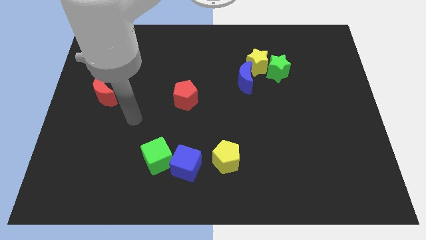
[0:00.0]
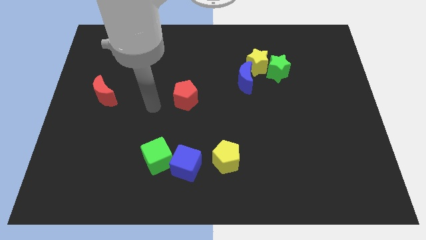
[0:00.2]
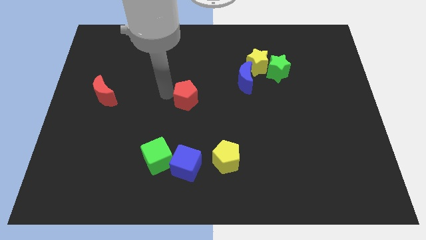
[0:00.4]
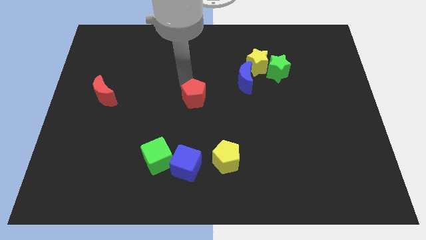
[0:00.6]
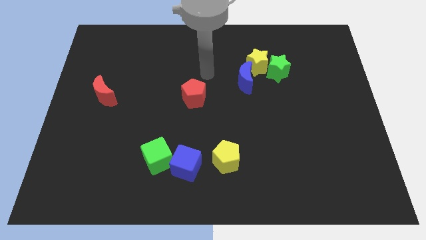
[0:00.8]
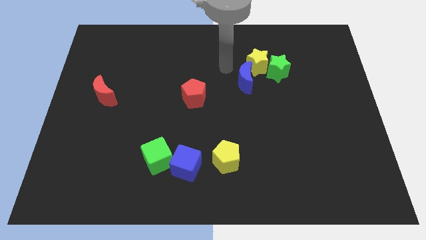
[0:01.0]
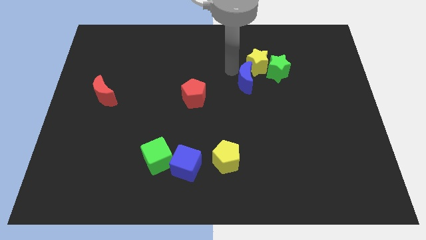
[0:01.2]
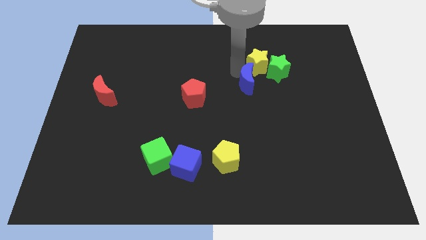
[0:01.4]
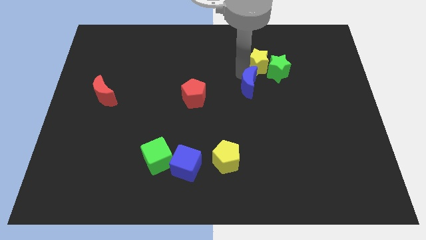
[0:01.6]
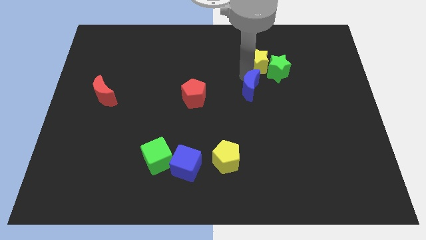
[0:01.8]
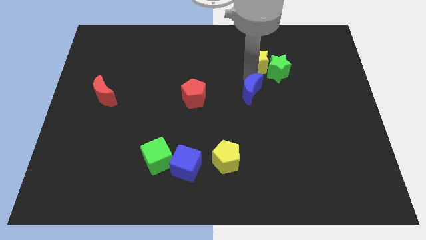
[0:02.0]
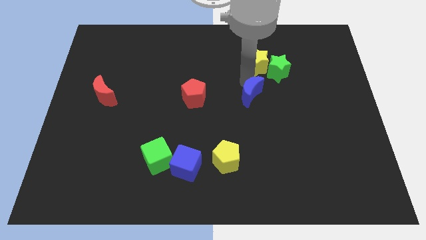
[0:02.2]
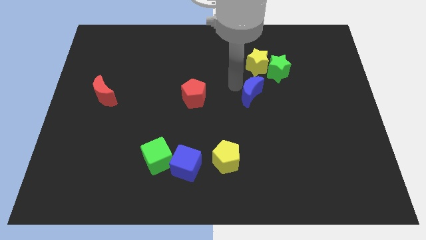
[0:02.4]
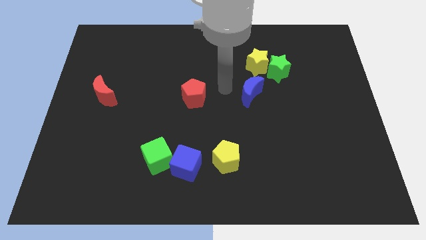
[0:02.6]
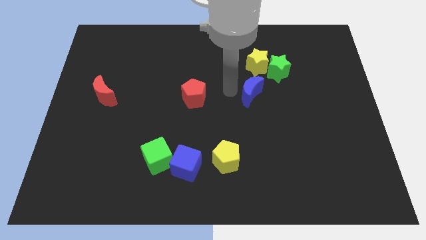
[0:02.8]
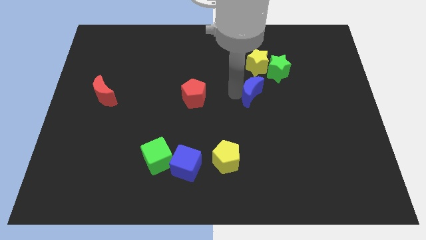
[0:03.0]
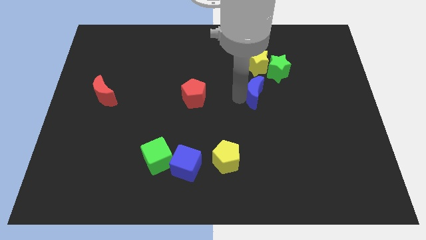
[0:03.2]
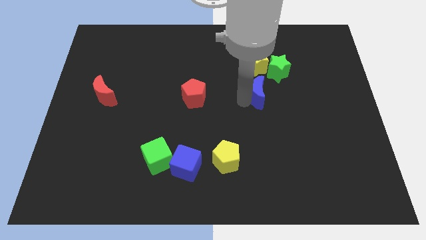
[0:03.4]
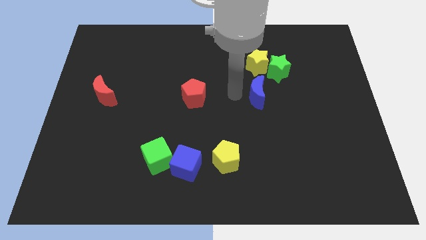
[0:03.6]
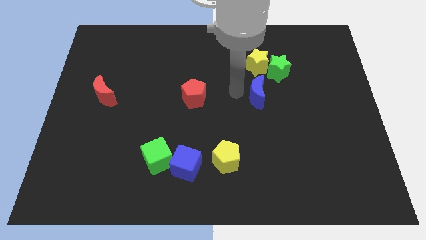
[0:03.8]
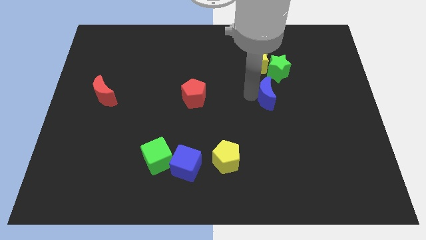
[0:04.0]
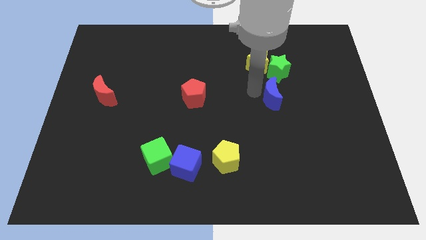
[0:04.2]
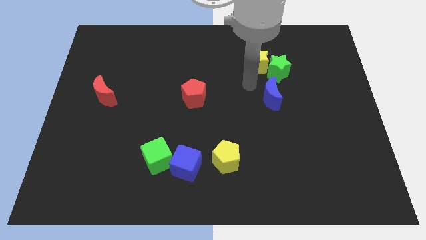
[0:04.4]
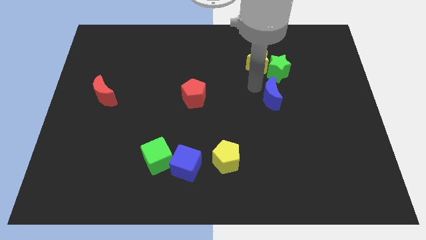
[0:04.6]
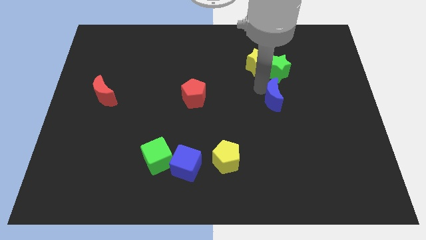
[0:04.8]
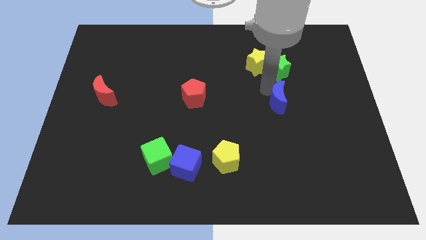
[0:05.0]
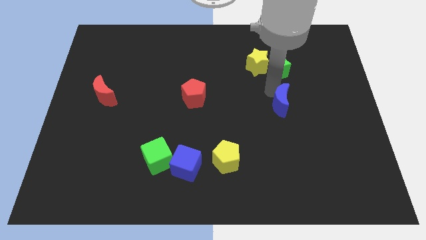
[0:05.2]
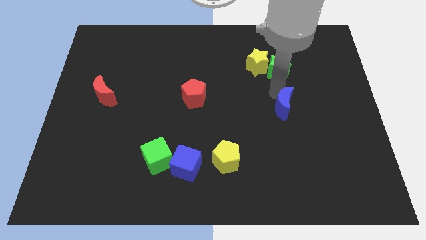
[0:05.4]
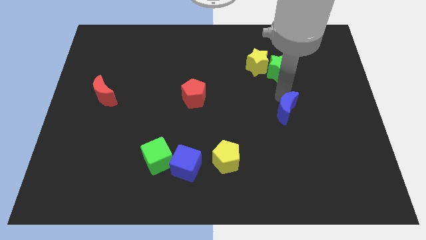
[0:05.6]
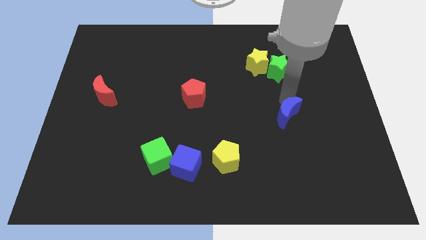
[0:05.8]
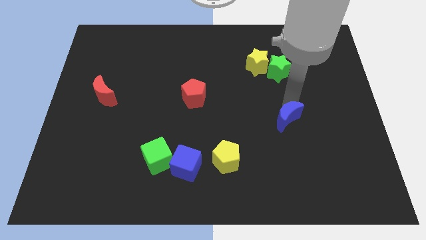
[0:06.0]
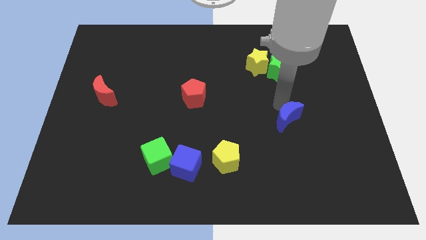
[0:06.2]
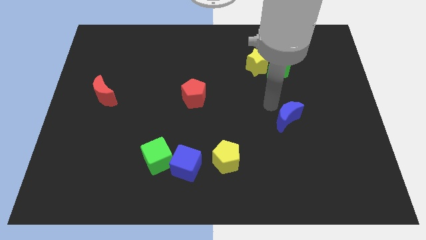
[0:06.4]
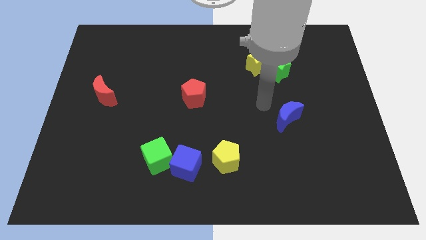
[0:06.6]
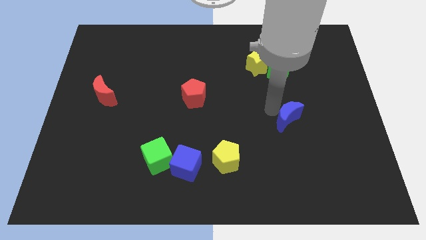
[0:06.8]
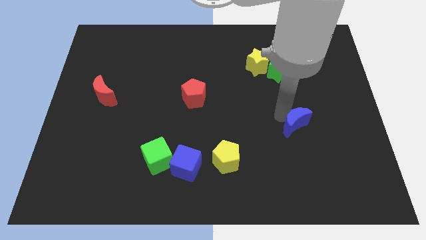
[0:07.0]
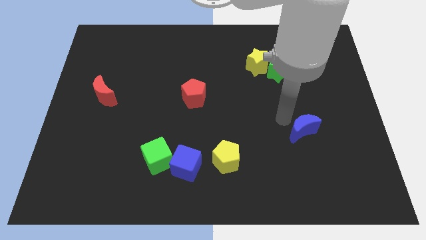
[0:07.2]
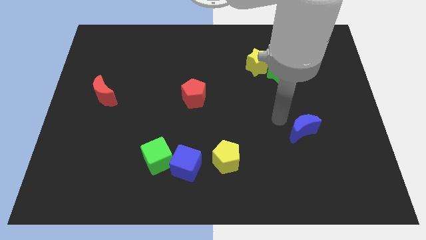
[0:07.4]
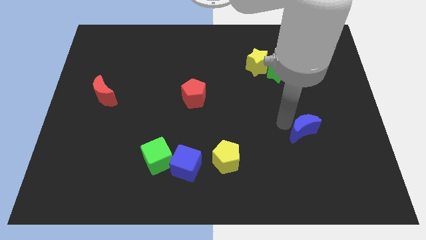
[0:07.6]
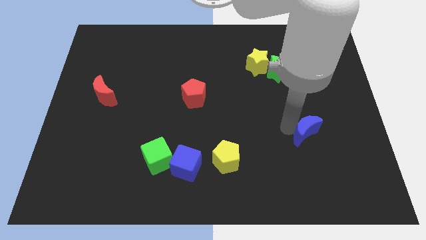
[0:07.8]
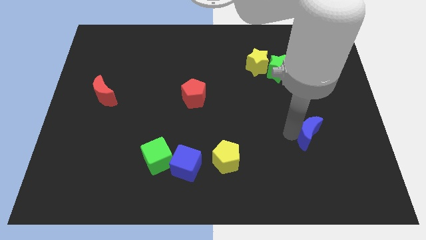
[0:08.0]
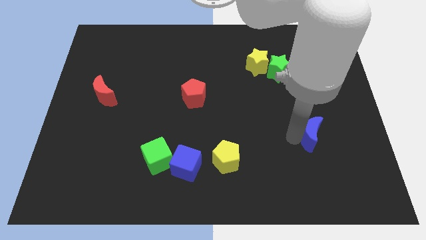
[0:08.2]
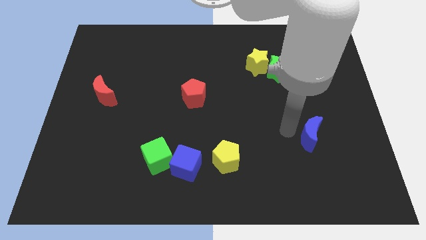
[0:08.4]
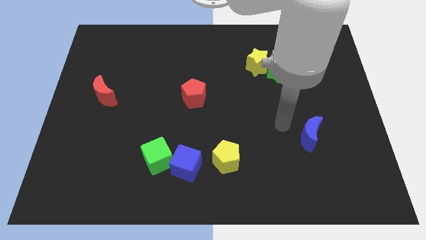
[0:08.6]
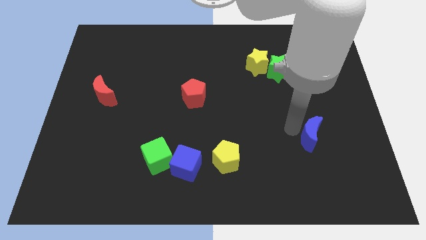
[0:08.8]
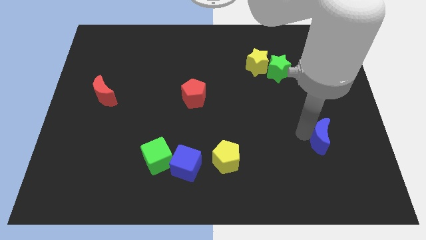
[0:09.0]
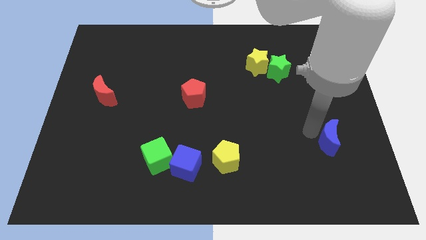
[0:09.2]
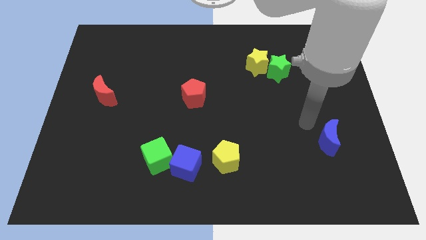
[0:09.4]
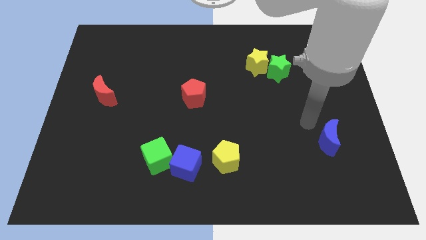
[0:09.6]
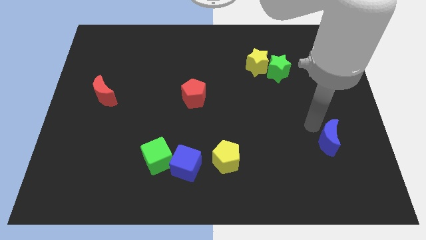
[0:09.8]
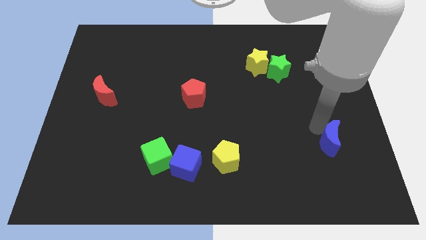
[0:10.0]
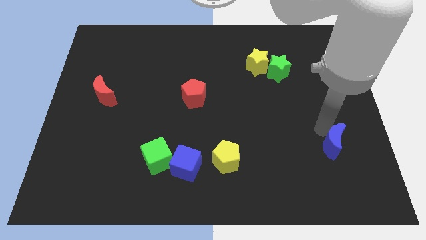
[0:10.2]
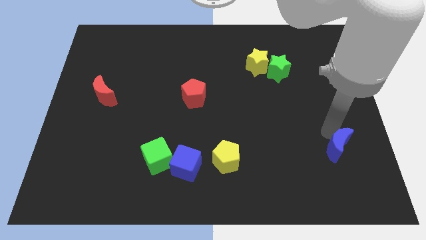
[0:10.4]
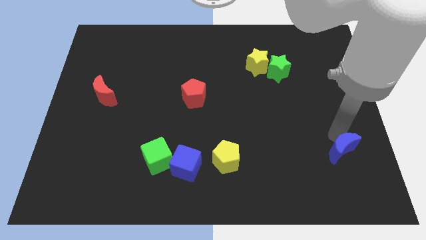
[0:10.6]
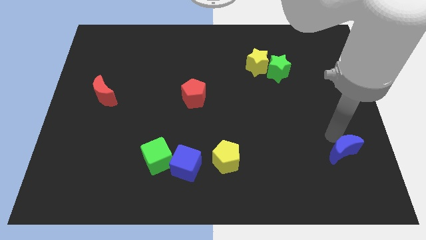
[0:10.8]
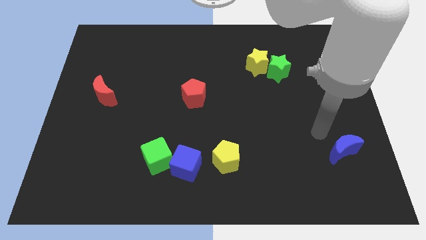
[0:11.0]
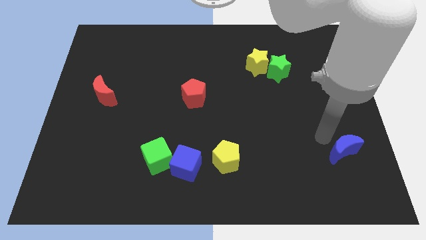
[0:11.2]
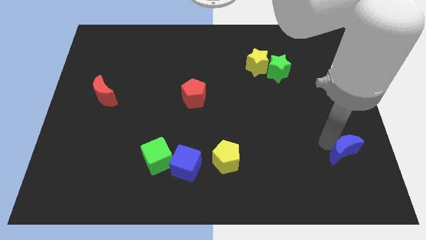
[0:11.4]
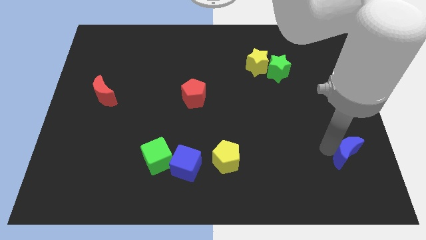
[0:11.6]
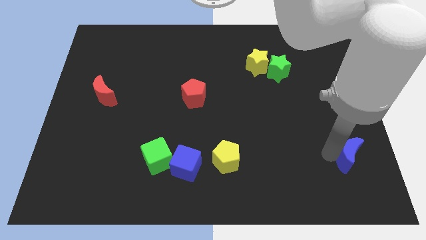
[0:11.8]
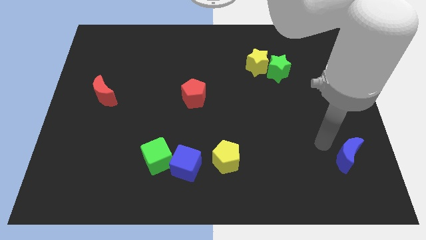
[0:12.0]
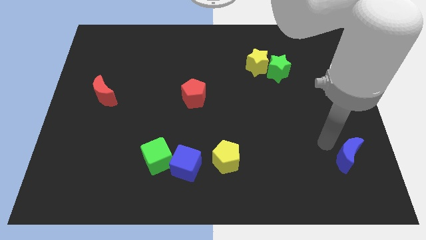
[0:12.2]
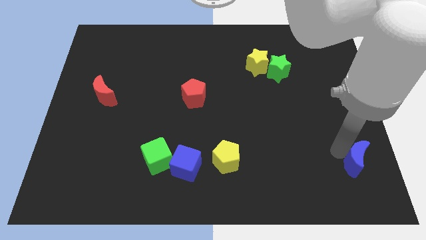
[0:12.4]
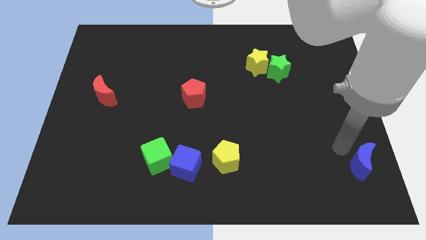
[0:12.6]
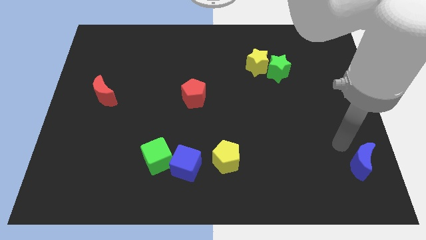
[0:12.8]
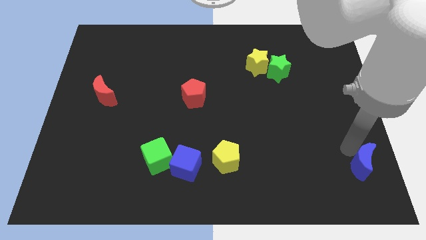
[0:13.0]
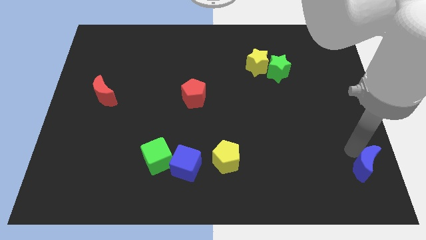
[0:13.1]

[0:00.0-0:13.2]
push the blue moon to the bottom right of the board
